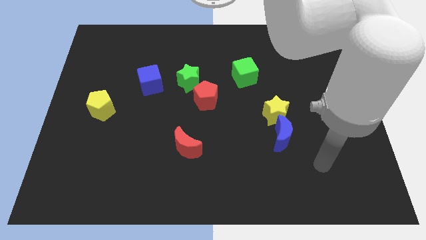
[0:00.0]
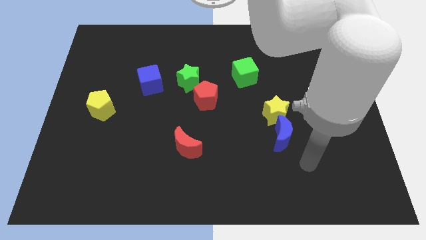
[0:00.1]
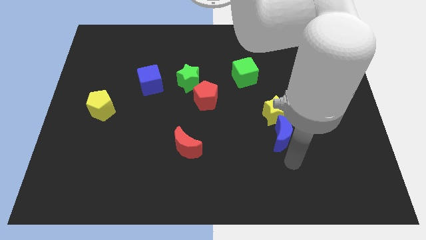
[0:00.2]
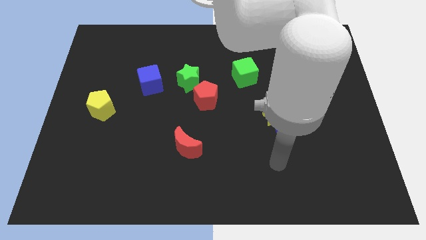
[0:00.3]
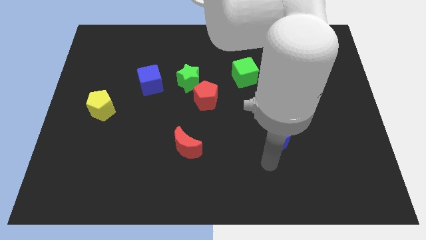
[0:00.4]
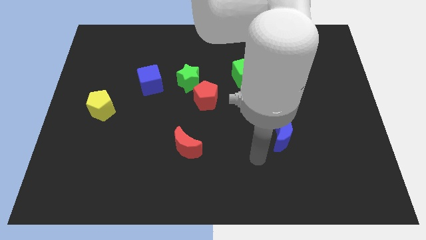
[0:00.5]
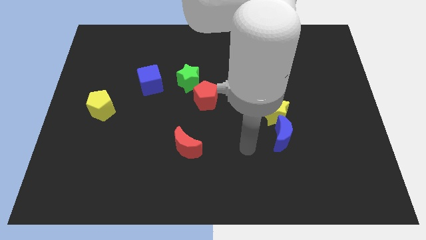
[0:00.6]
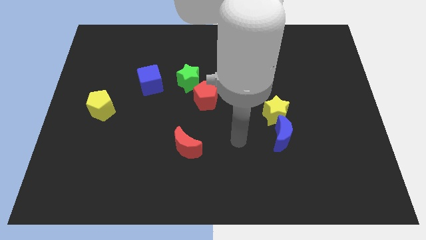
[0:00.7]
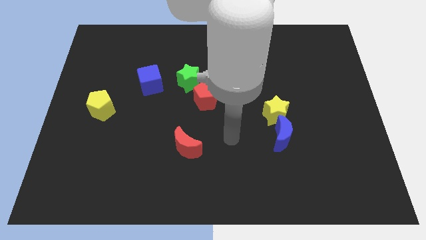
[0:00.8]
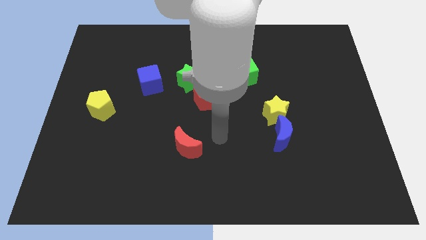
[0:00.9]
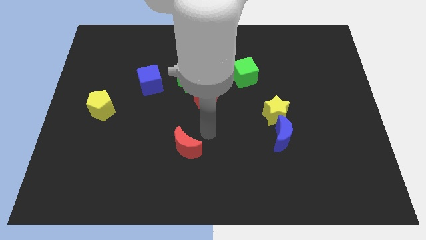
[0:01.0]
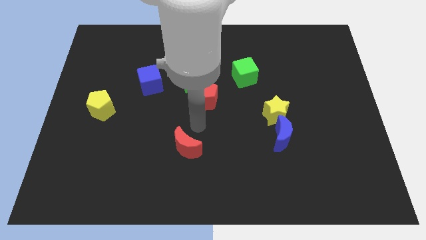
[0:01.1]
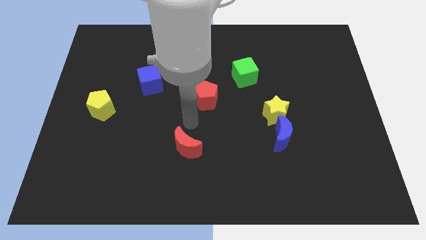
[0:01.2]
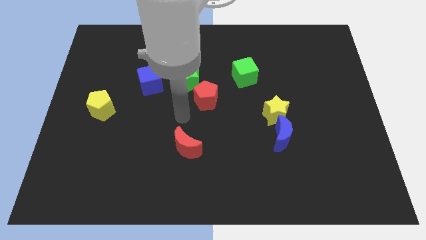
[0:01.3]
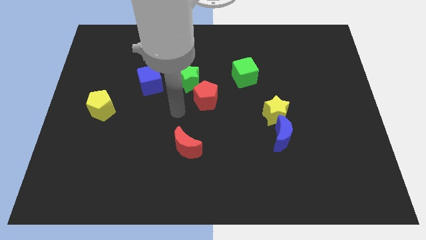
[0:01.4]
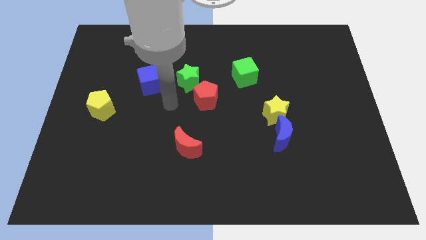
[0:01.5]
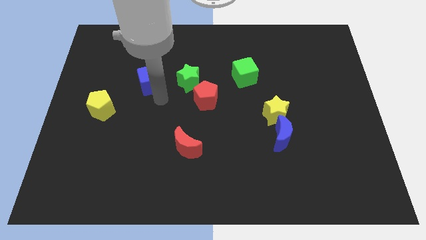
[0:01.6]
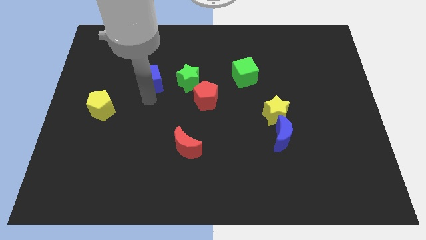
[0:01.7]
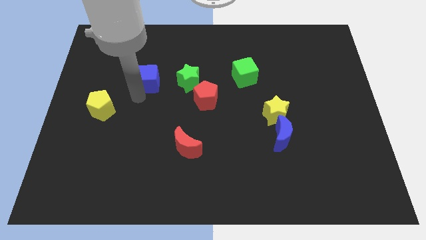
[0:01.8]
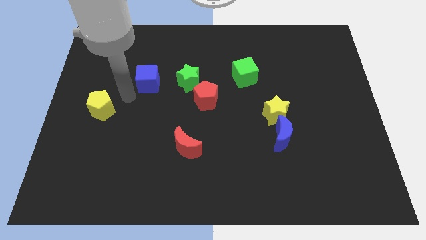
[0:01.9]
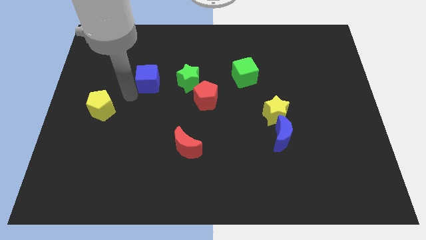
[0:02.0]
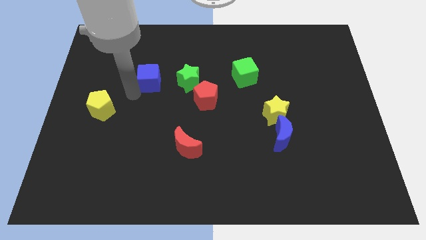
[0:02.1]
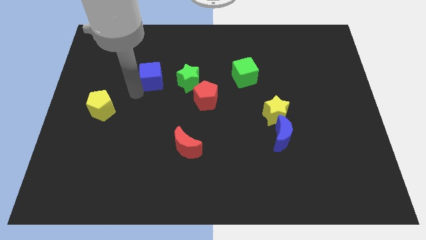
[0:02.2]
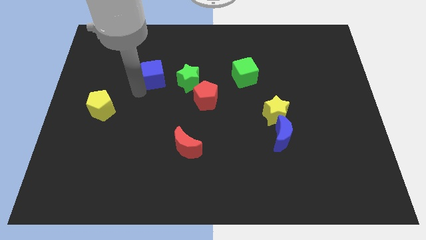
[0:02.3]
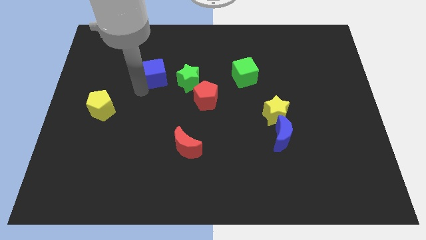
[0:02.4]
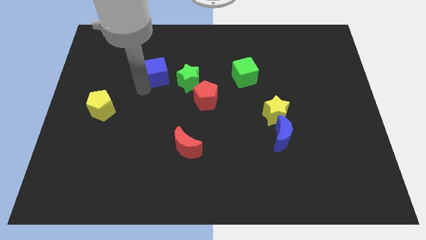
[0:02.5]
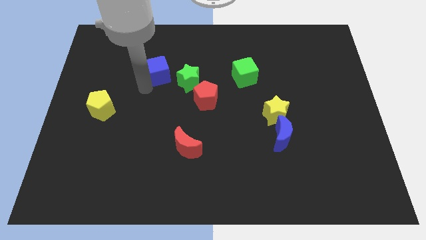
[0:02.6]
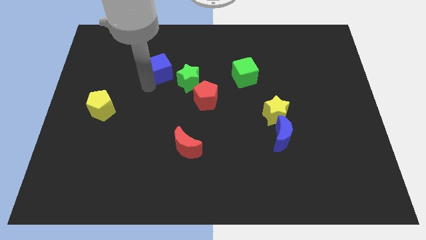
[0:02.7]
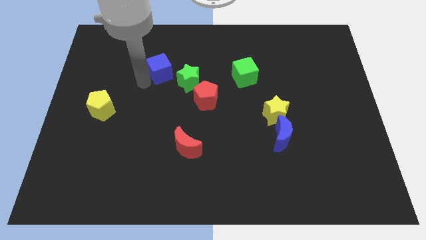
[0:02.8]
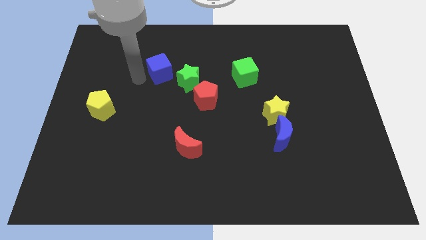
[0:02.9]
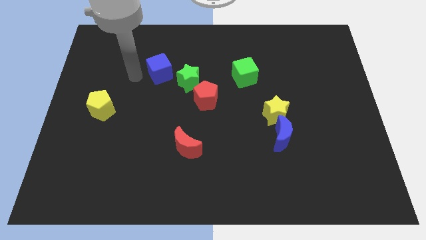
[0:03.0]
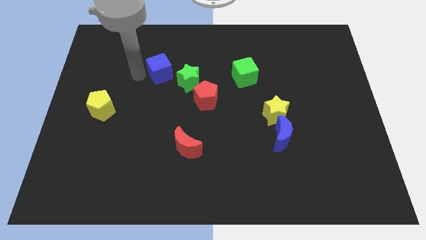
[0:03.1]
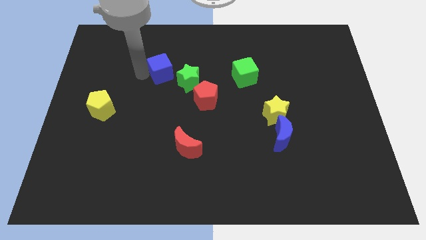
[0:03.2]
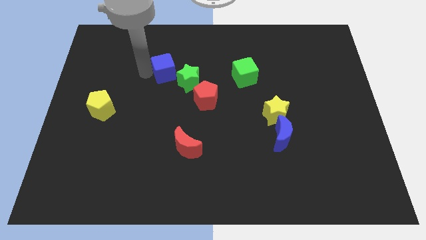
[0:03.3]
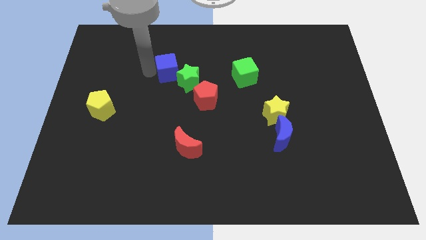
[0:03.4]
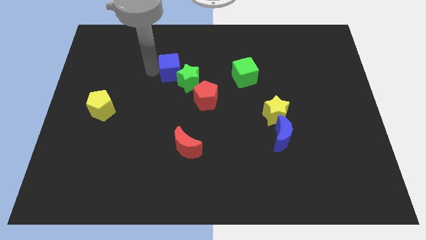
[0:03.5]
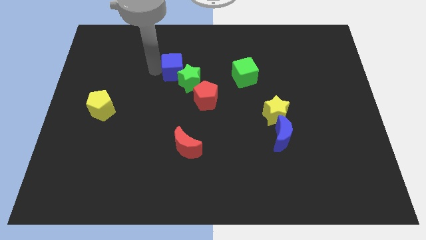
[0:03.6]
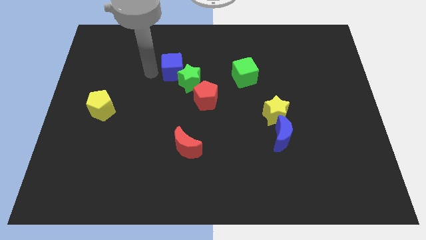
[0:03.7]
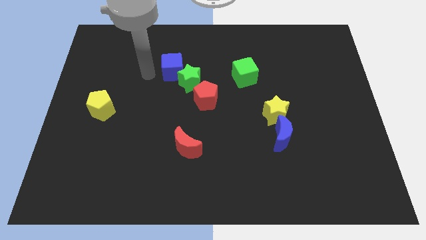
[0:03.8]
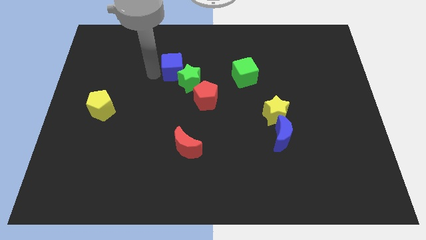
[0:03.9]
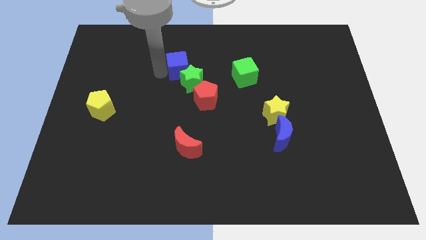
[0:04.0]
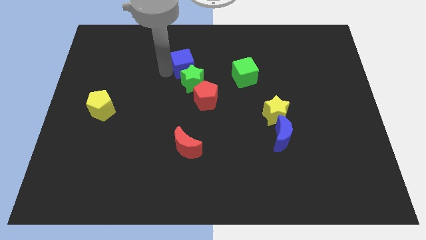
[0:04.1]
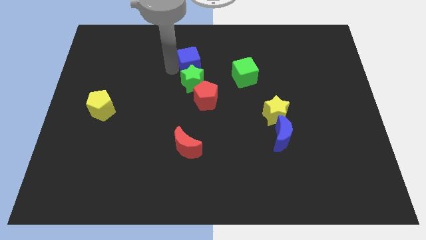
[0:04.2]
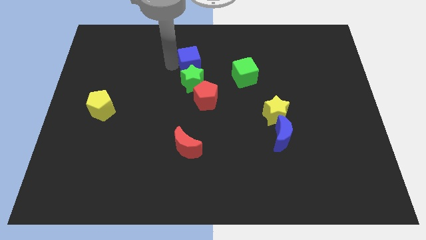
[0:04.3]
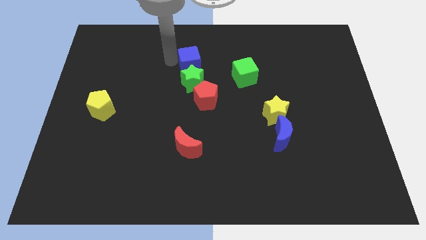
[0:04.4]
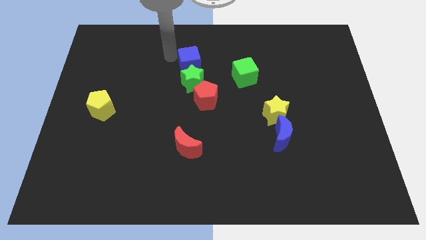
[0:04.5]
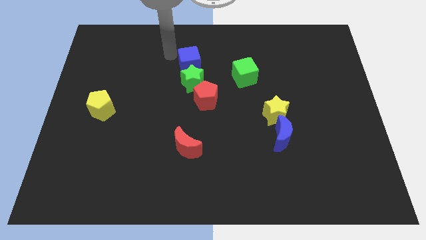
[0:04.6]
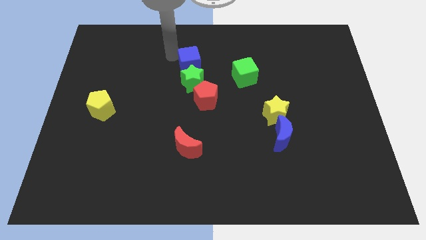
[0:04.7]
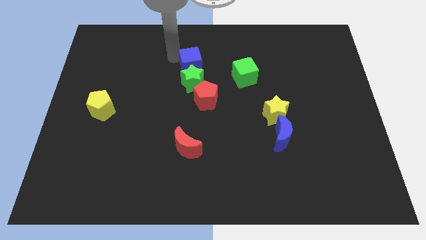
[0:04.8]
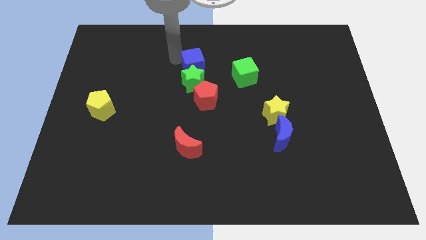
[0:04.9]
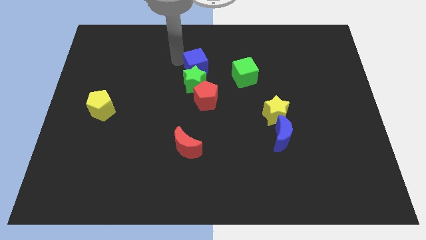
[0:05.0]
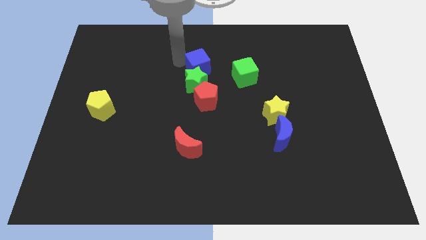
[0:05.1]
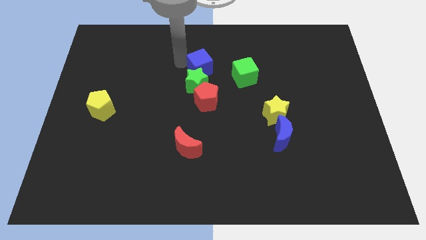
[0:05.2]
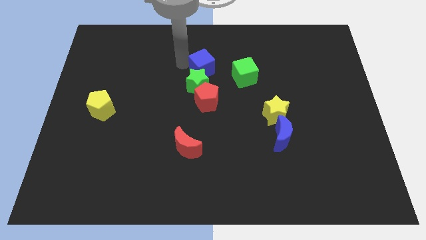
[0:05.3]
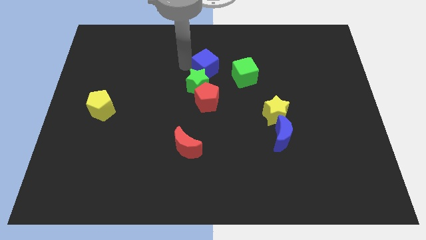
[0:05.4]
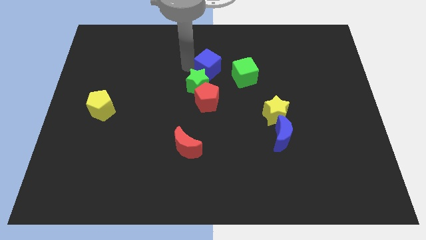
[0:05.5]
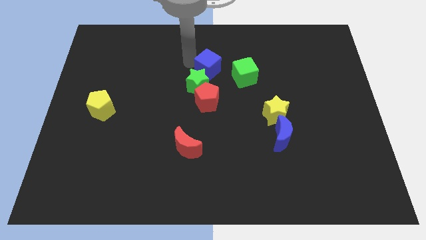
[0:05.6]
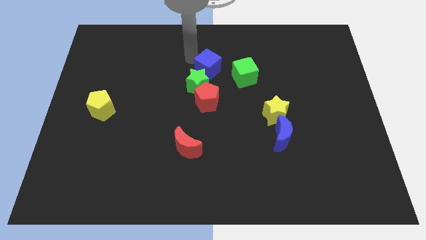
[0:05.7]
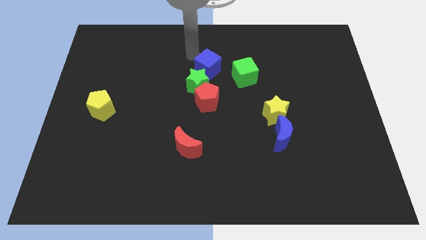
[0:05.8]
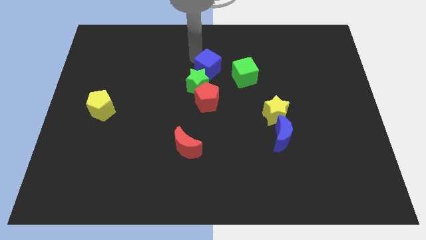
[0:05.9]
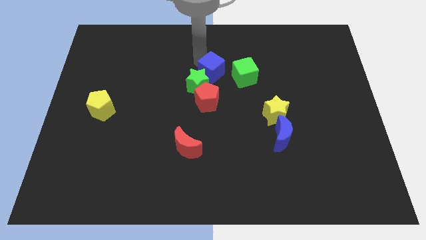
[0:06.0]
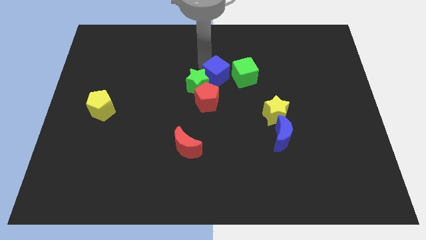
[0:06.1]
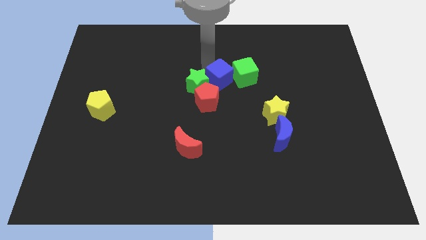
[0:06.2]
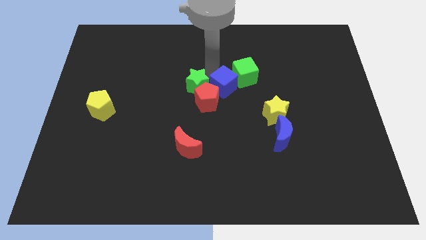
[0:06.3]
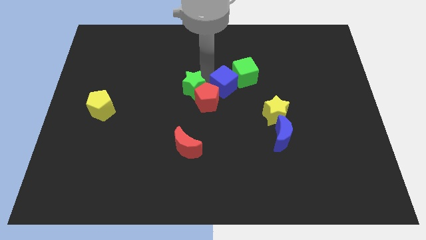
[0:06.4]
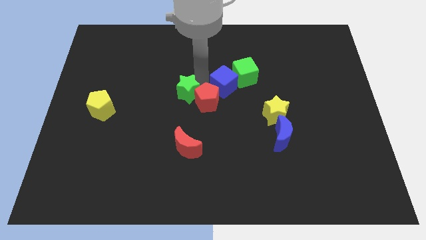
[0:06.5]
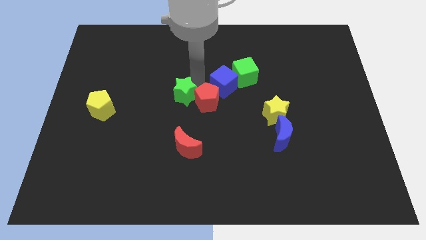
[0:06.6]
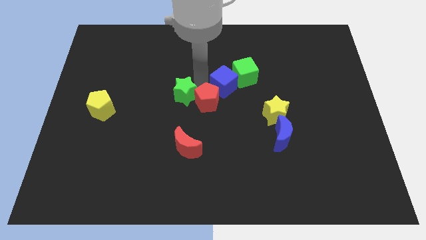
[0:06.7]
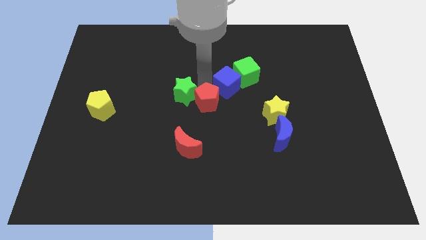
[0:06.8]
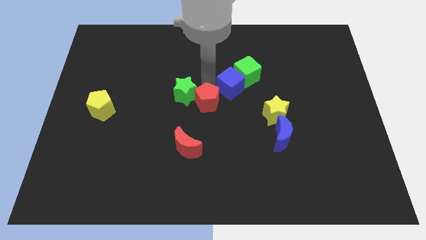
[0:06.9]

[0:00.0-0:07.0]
push the blue cube to the right

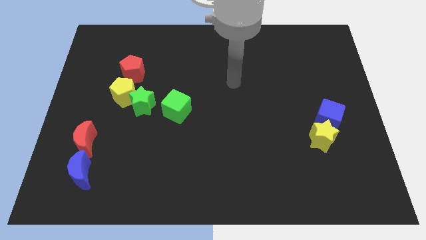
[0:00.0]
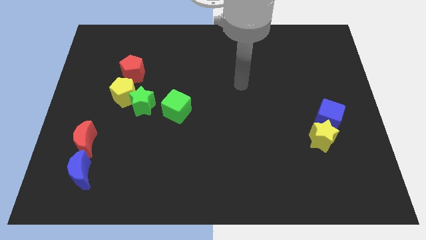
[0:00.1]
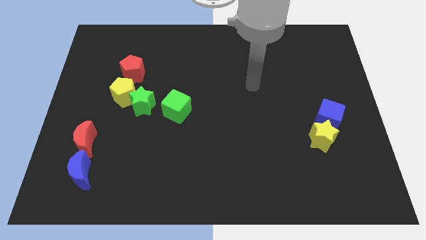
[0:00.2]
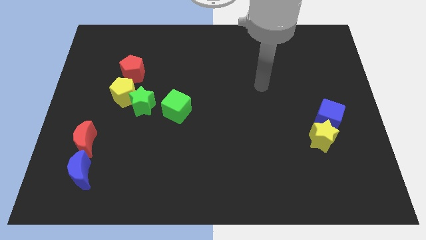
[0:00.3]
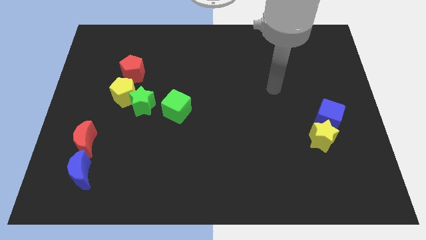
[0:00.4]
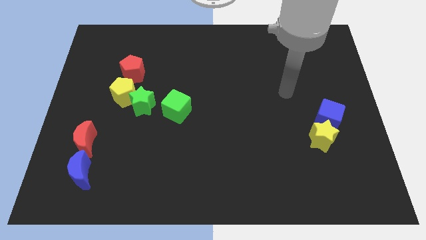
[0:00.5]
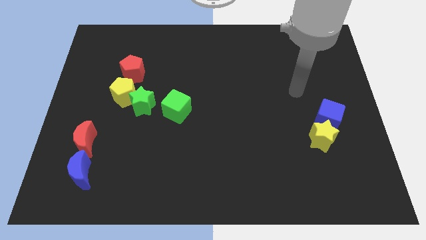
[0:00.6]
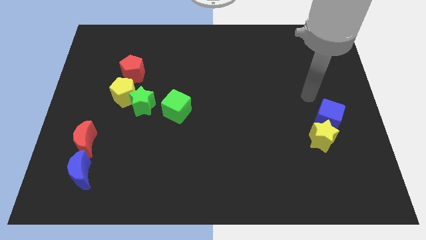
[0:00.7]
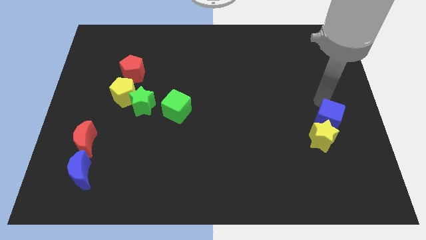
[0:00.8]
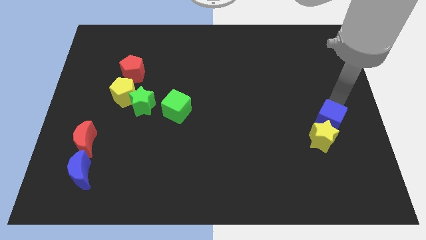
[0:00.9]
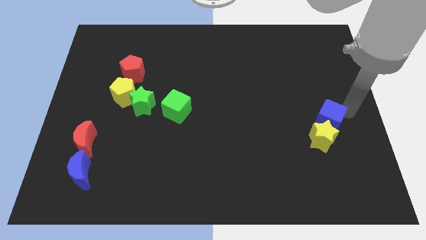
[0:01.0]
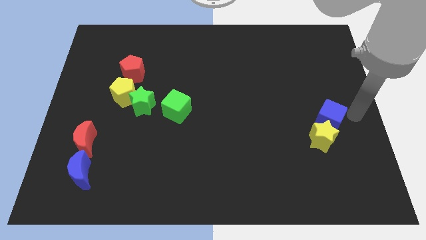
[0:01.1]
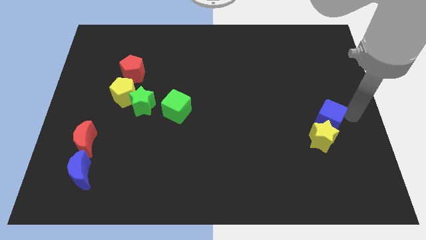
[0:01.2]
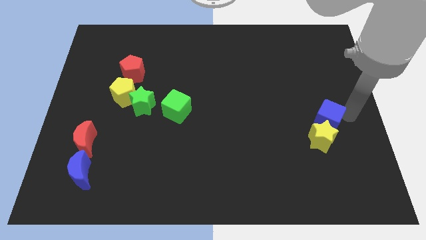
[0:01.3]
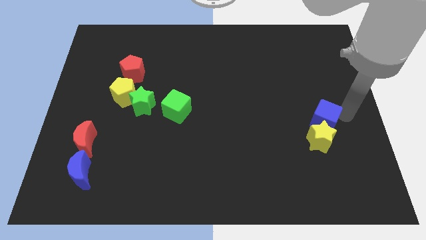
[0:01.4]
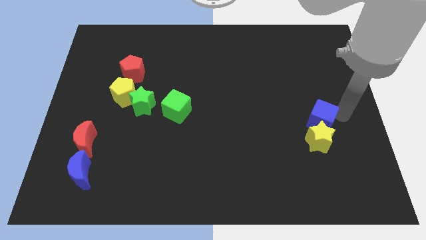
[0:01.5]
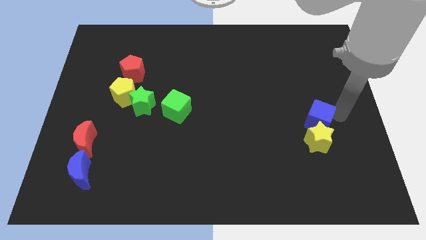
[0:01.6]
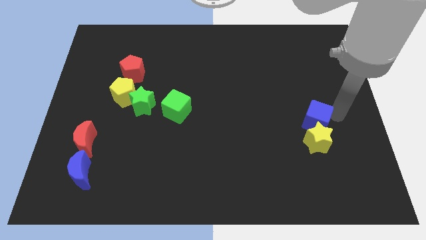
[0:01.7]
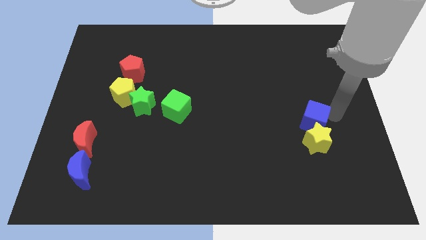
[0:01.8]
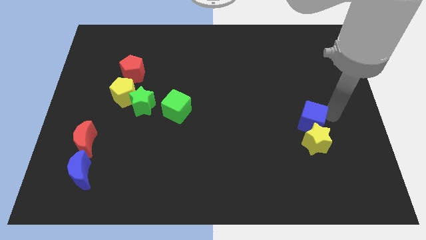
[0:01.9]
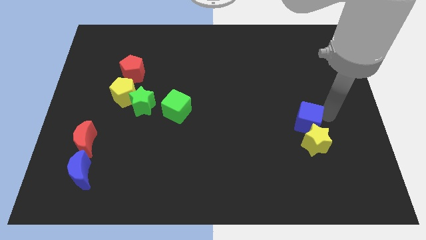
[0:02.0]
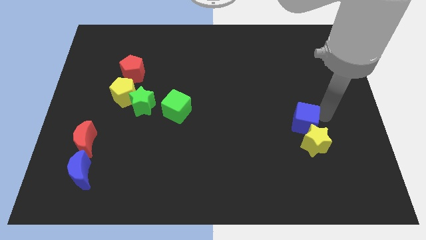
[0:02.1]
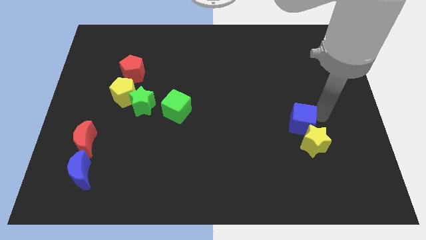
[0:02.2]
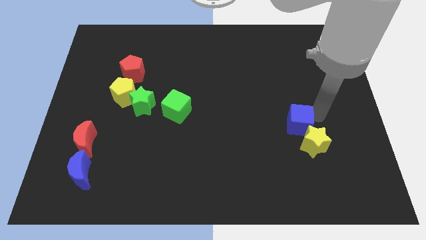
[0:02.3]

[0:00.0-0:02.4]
slightly move the blue cube left
